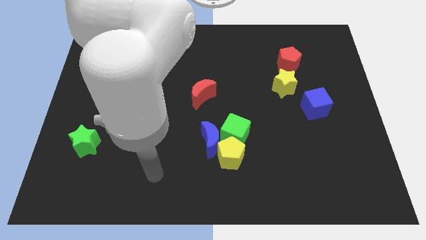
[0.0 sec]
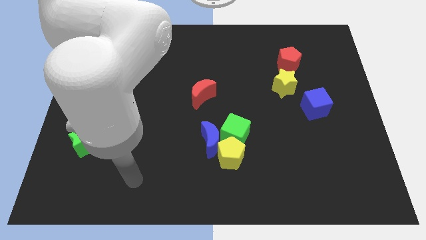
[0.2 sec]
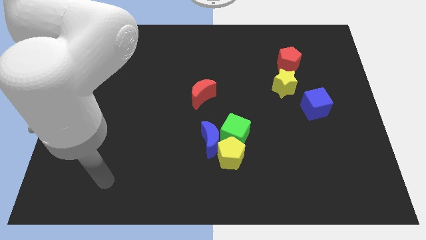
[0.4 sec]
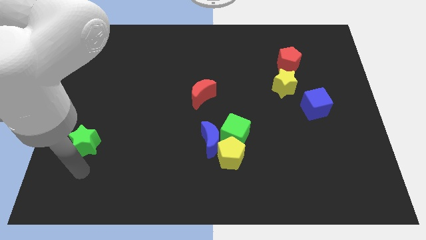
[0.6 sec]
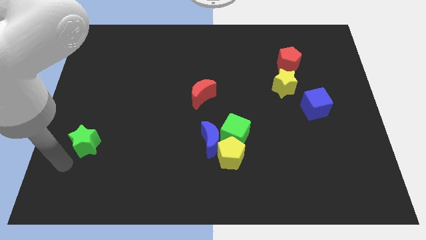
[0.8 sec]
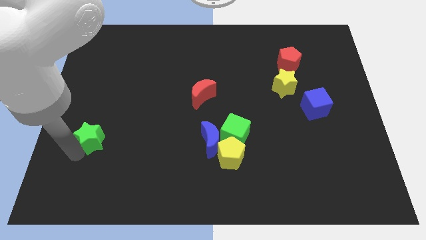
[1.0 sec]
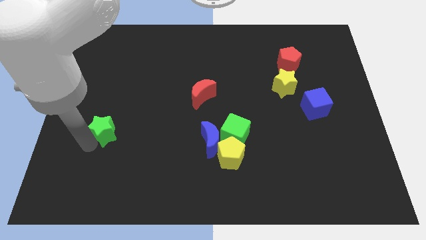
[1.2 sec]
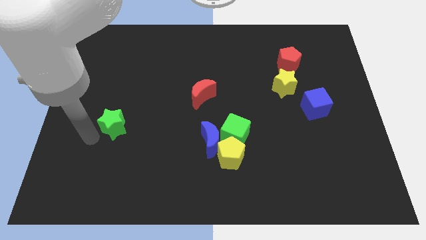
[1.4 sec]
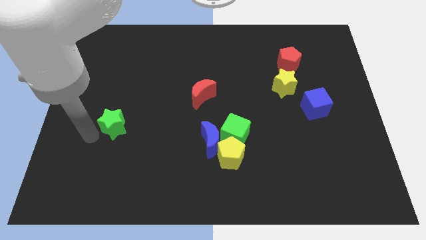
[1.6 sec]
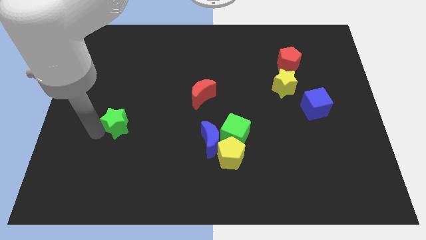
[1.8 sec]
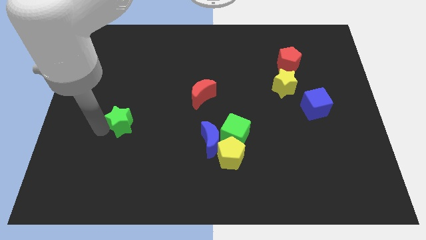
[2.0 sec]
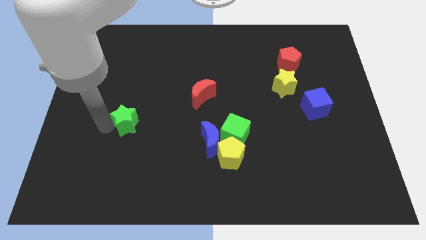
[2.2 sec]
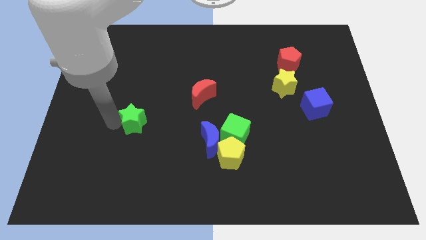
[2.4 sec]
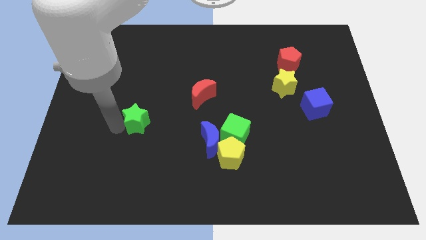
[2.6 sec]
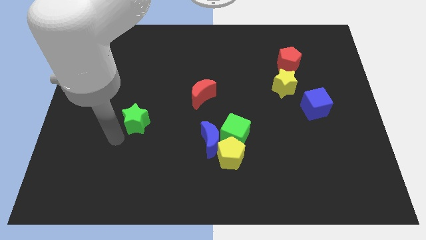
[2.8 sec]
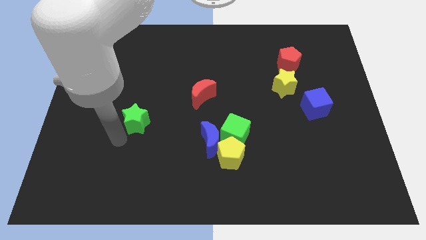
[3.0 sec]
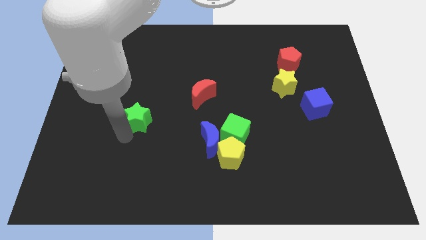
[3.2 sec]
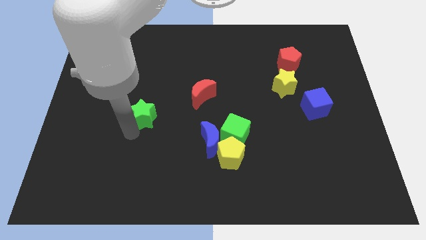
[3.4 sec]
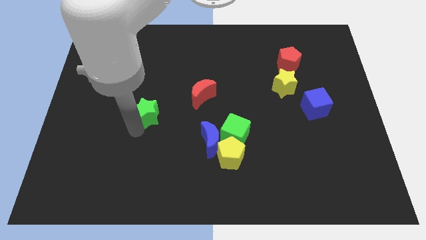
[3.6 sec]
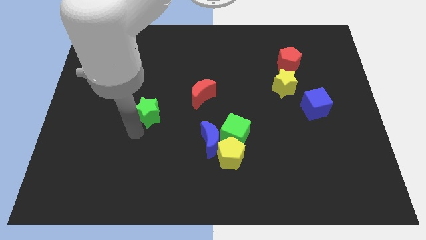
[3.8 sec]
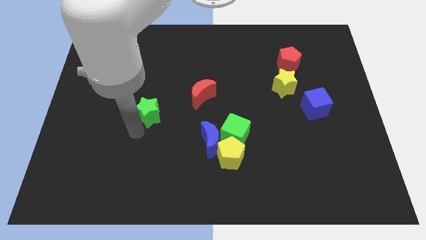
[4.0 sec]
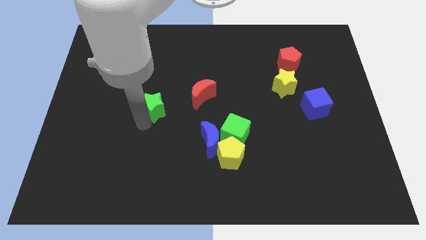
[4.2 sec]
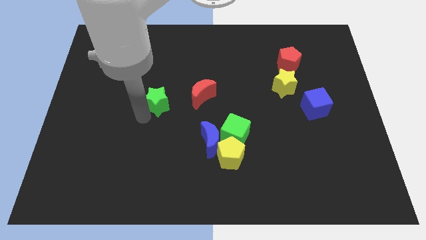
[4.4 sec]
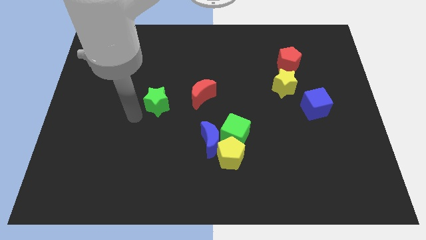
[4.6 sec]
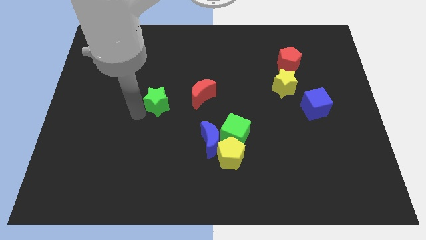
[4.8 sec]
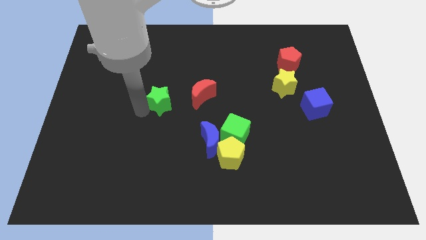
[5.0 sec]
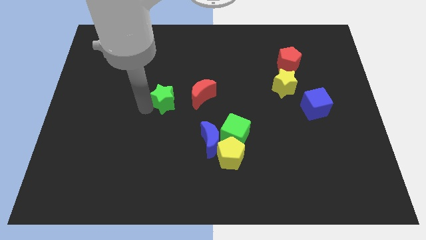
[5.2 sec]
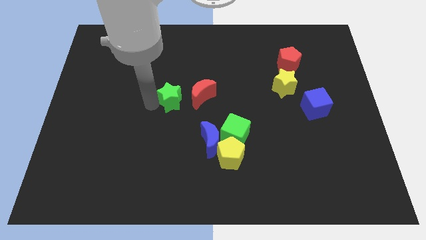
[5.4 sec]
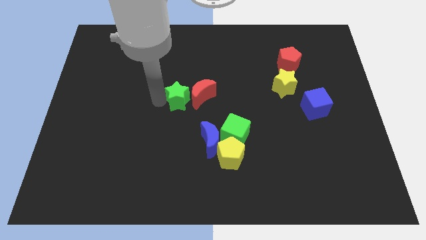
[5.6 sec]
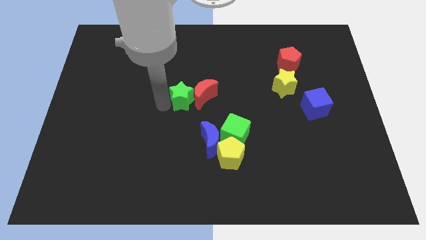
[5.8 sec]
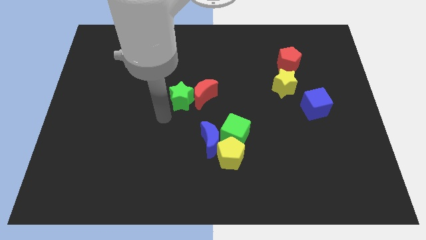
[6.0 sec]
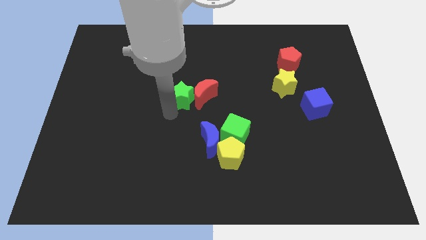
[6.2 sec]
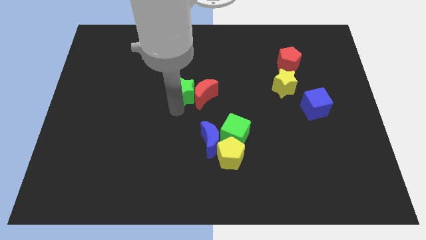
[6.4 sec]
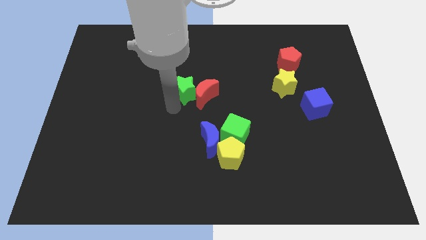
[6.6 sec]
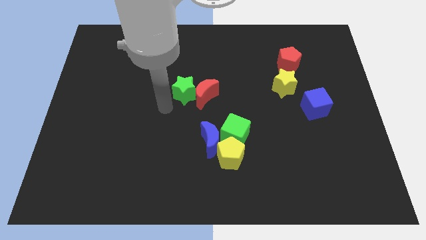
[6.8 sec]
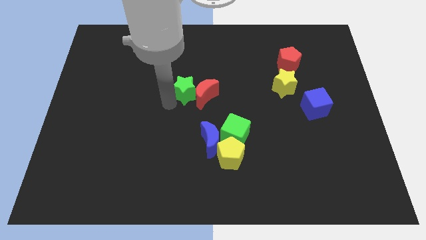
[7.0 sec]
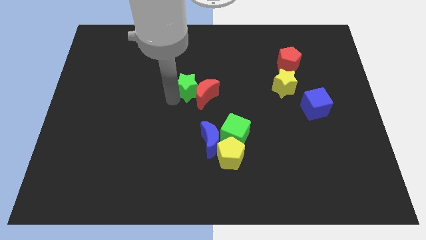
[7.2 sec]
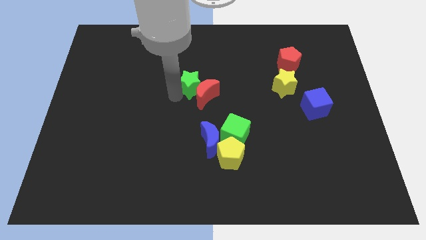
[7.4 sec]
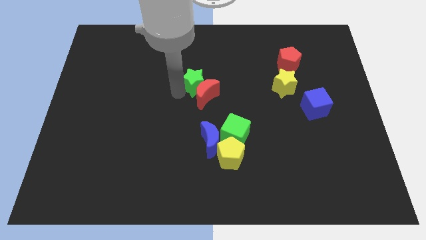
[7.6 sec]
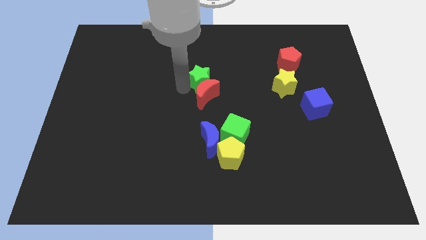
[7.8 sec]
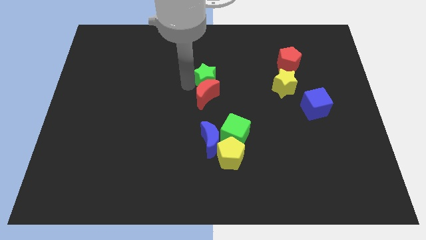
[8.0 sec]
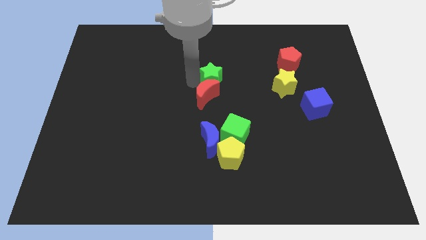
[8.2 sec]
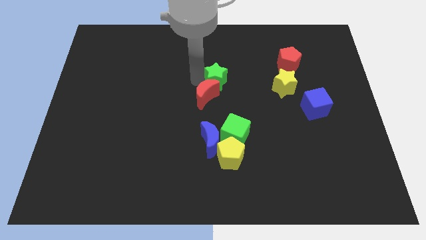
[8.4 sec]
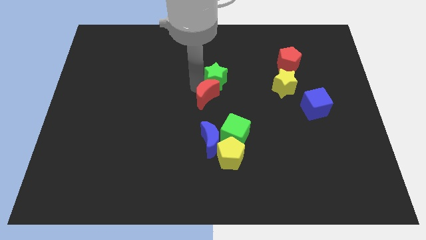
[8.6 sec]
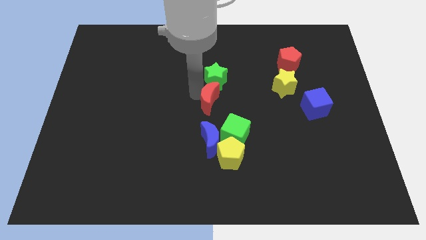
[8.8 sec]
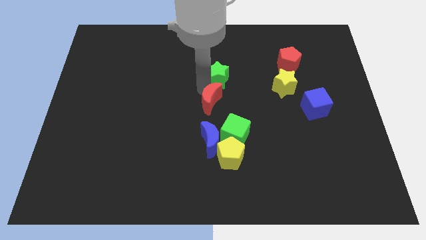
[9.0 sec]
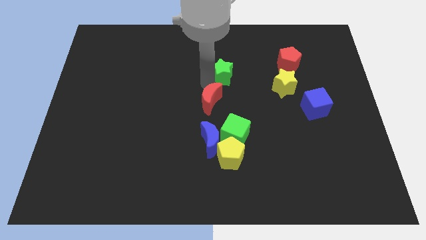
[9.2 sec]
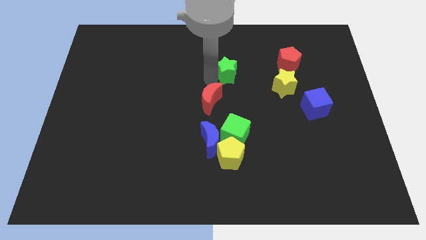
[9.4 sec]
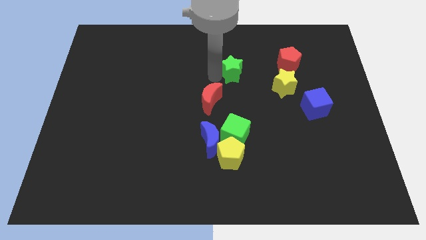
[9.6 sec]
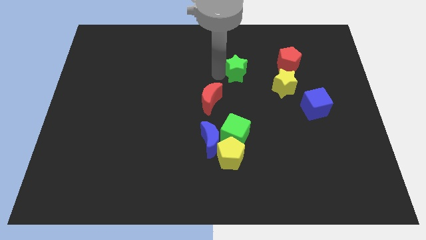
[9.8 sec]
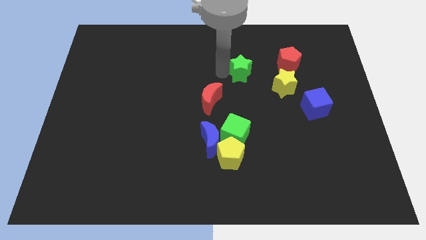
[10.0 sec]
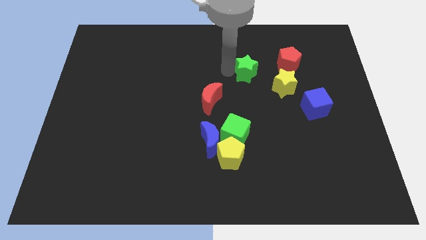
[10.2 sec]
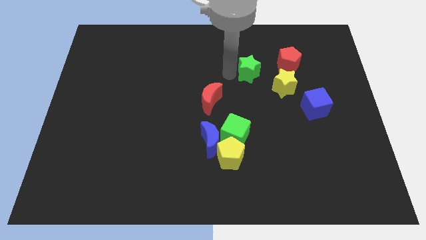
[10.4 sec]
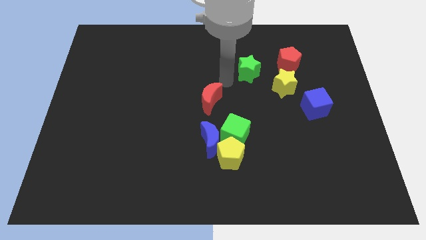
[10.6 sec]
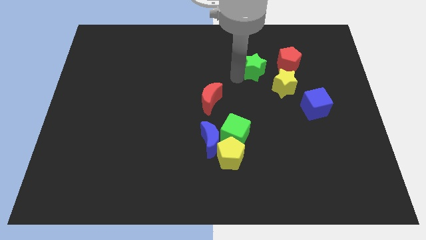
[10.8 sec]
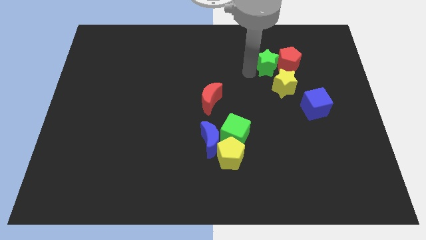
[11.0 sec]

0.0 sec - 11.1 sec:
move the green star to the red pentagon

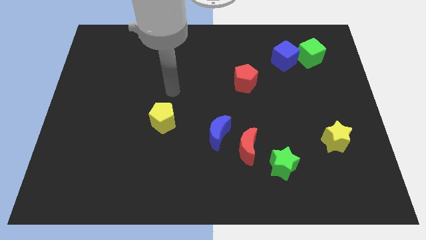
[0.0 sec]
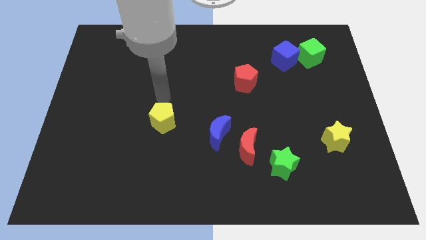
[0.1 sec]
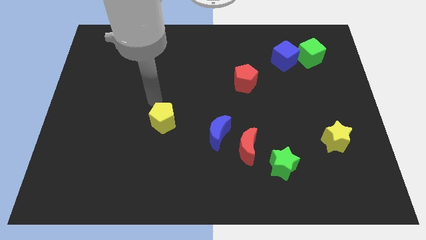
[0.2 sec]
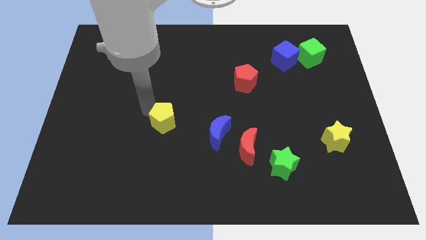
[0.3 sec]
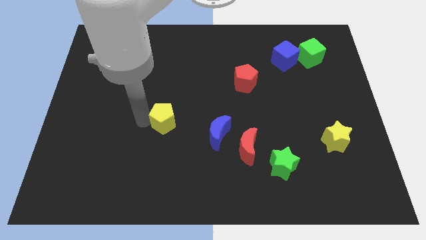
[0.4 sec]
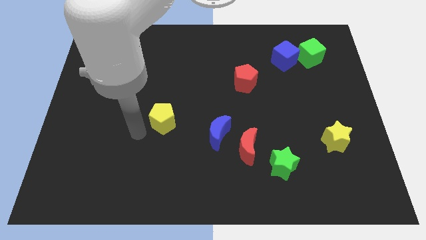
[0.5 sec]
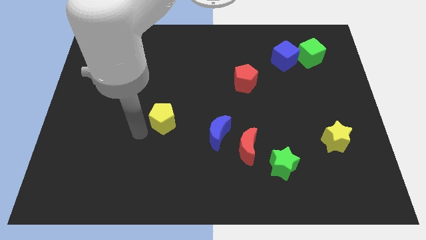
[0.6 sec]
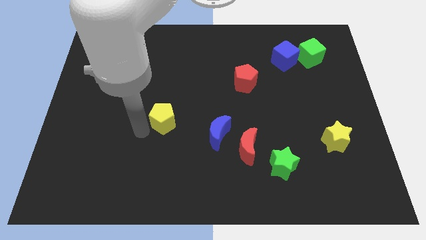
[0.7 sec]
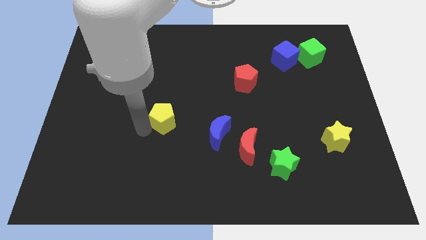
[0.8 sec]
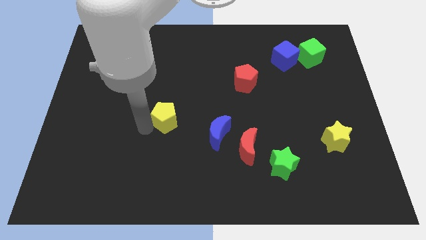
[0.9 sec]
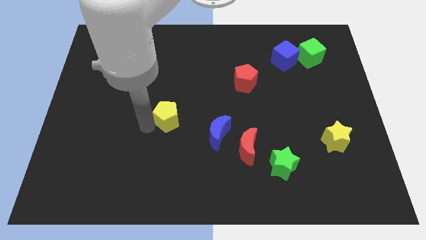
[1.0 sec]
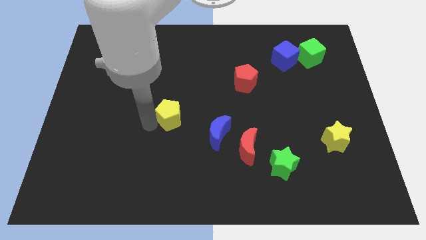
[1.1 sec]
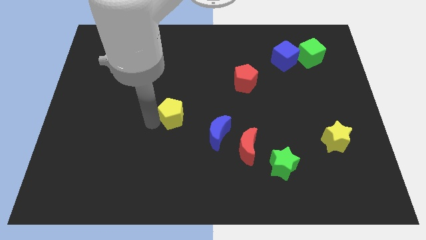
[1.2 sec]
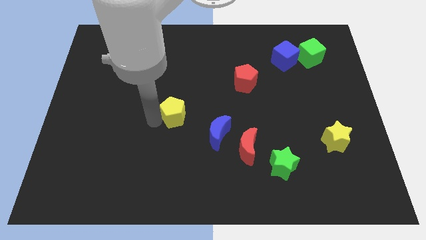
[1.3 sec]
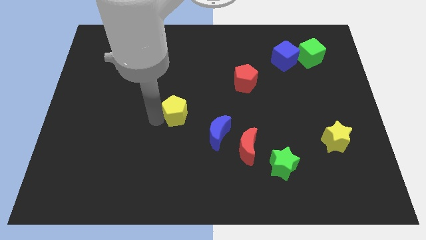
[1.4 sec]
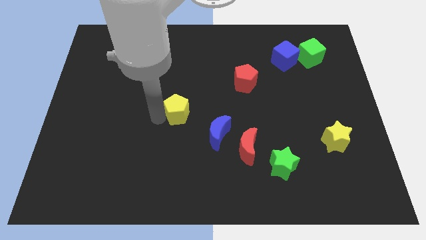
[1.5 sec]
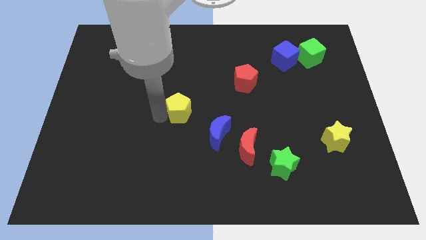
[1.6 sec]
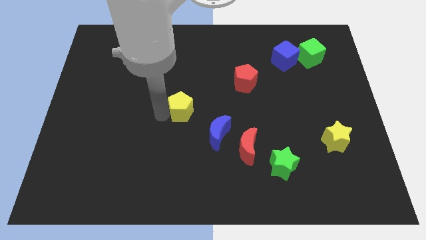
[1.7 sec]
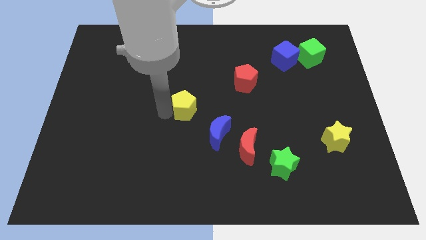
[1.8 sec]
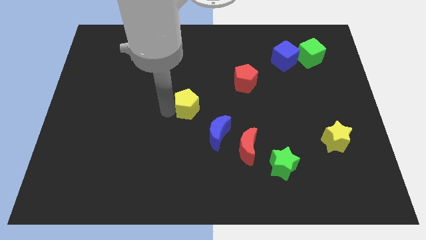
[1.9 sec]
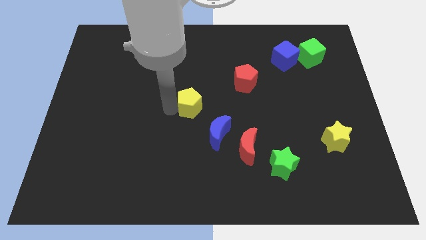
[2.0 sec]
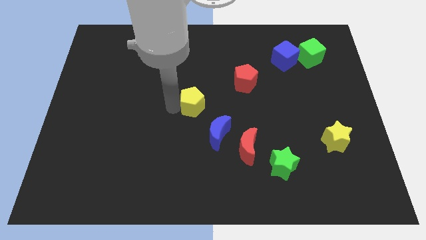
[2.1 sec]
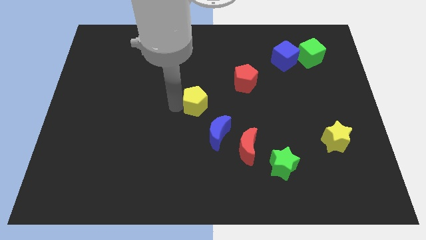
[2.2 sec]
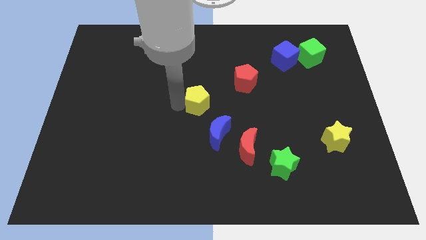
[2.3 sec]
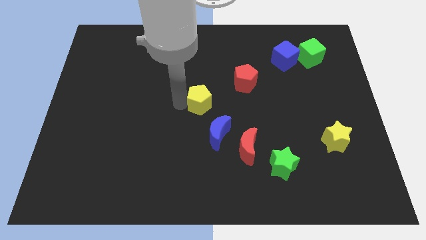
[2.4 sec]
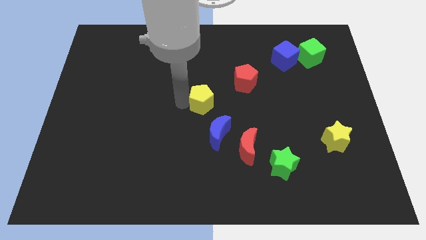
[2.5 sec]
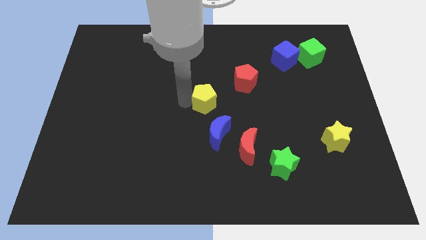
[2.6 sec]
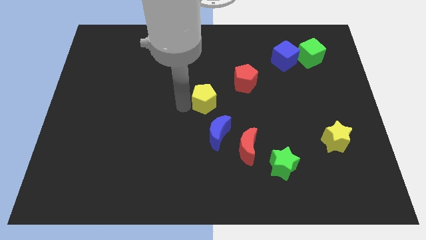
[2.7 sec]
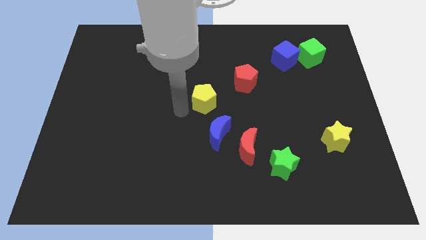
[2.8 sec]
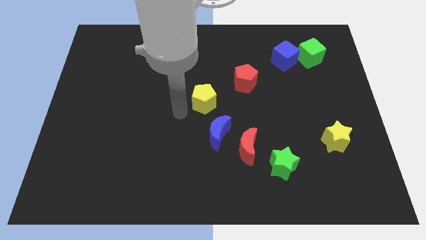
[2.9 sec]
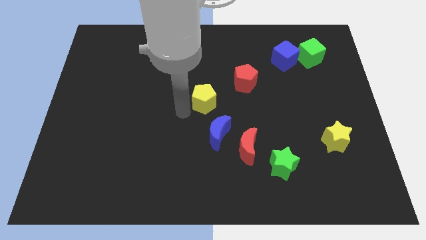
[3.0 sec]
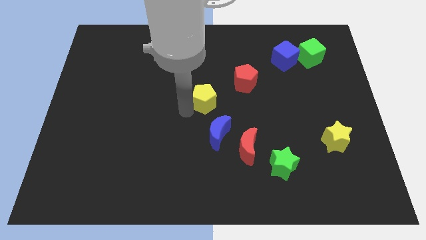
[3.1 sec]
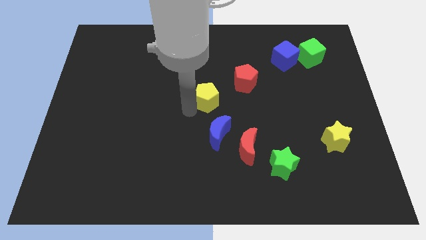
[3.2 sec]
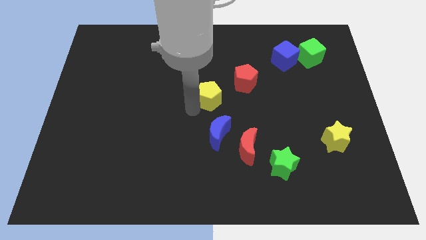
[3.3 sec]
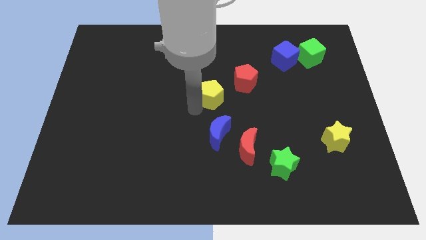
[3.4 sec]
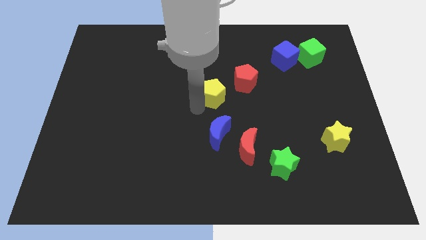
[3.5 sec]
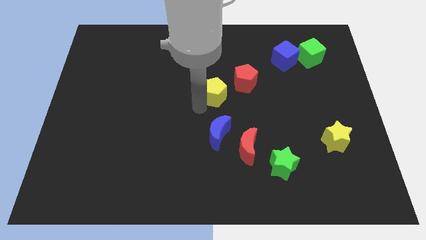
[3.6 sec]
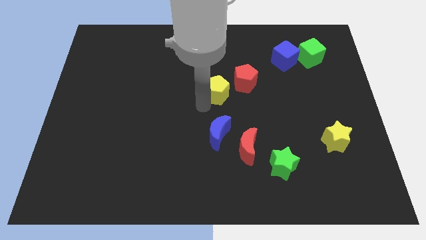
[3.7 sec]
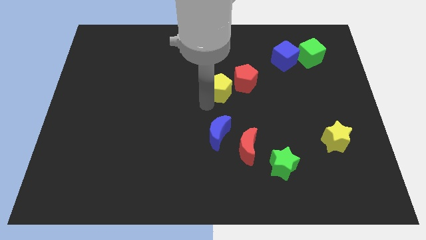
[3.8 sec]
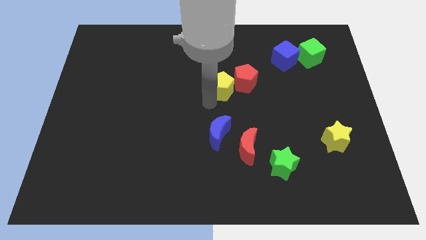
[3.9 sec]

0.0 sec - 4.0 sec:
move the yellow pentagon close to the red pentagon
